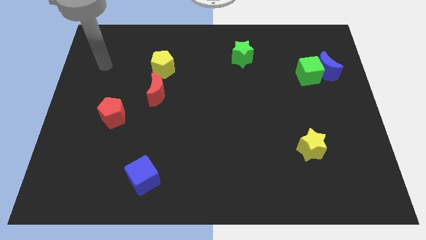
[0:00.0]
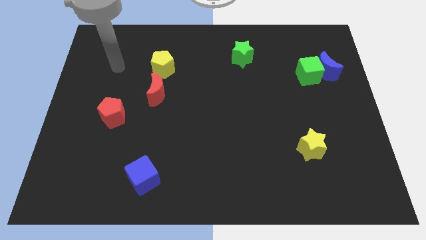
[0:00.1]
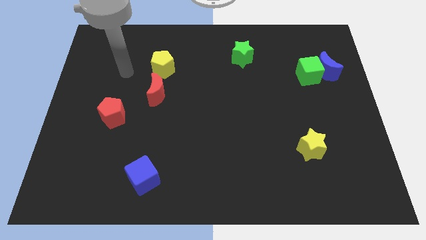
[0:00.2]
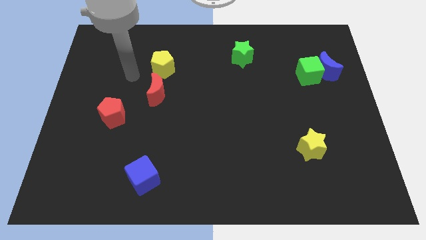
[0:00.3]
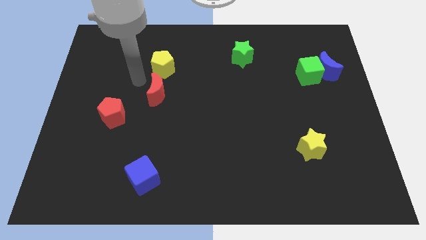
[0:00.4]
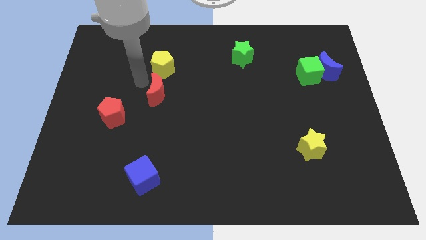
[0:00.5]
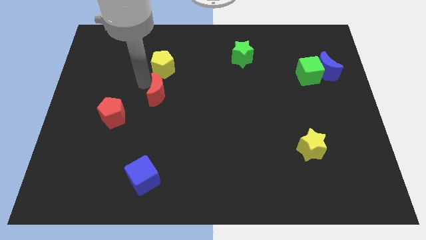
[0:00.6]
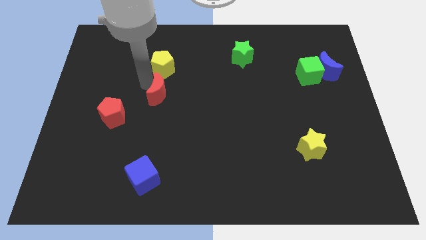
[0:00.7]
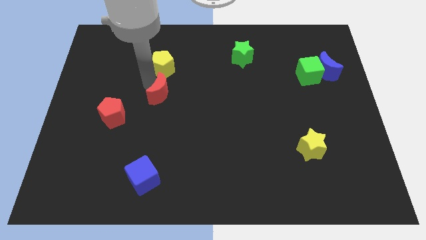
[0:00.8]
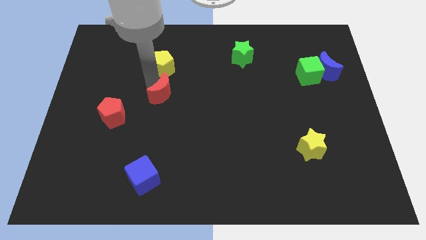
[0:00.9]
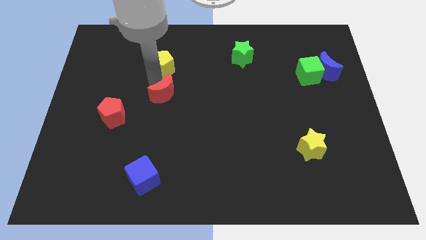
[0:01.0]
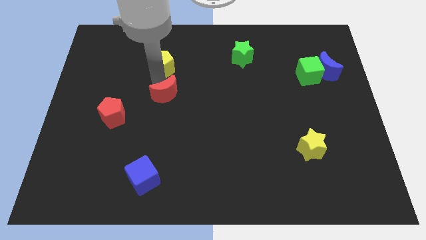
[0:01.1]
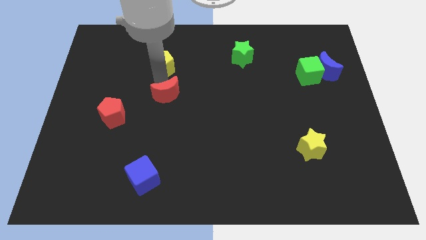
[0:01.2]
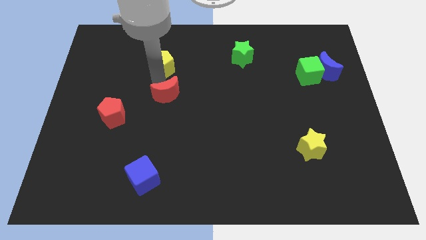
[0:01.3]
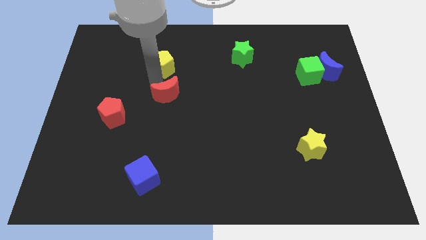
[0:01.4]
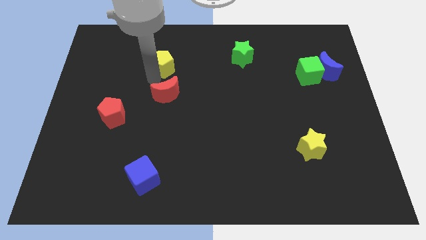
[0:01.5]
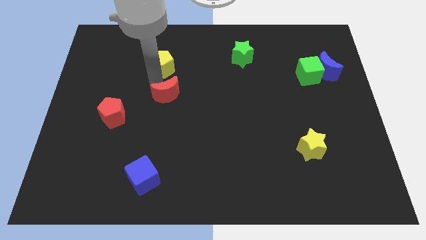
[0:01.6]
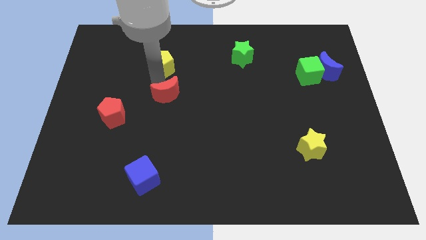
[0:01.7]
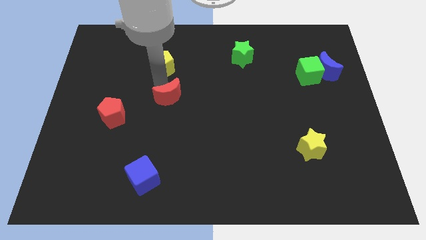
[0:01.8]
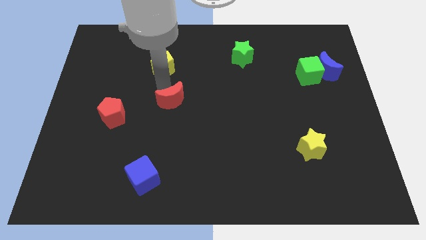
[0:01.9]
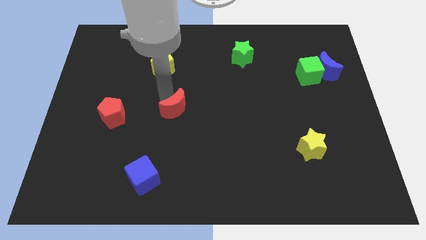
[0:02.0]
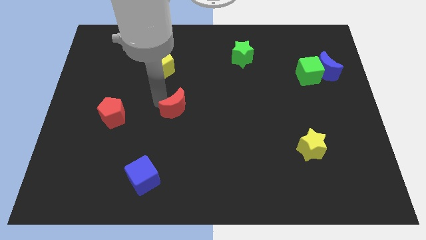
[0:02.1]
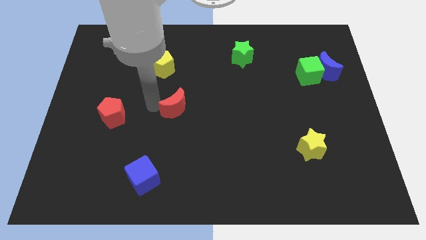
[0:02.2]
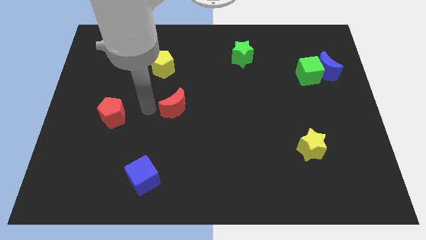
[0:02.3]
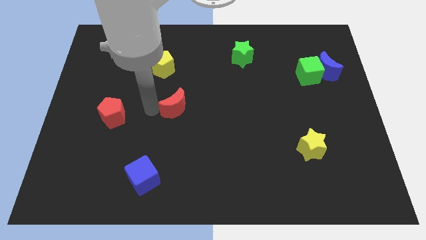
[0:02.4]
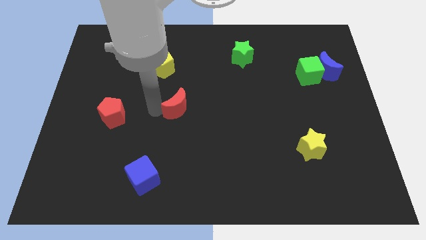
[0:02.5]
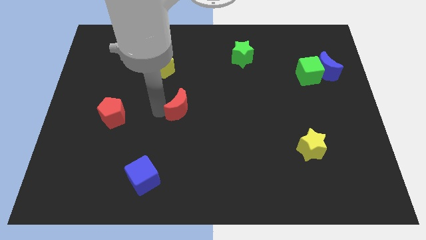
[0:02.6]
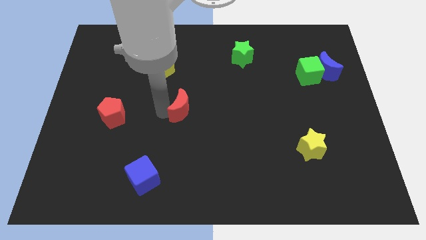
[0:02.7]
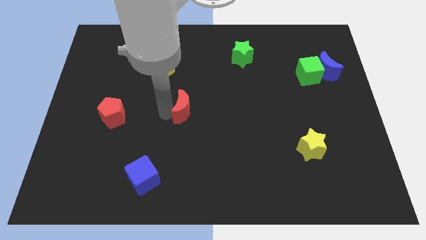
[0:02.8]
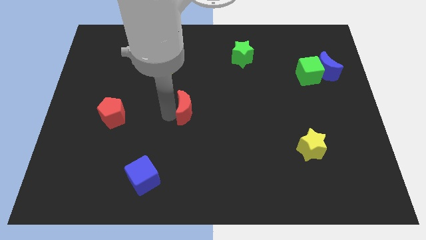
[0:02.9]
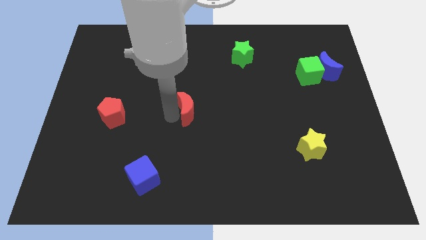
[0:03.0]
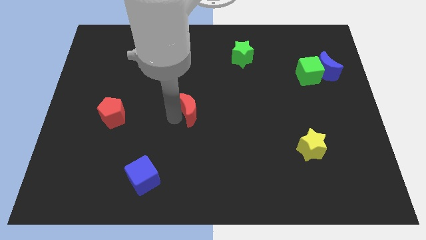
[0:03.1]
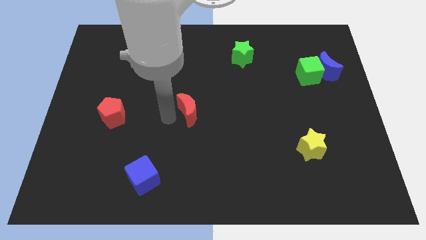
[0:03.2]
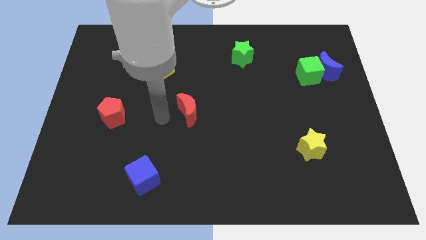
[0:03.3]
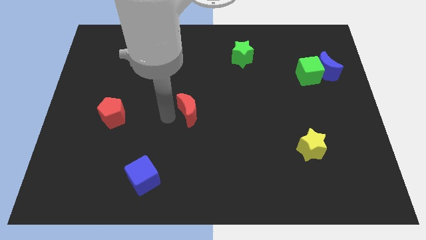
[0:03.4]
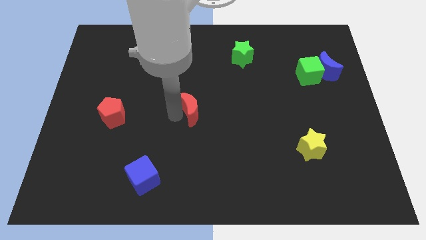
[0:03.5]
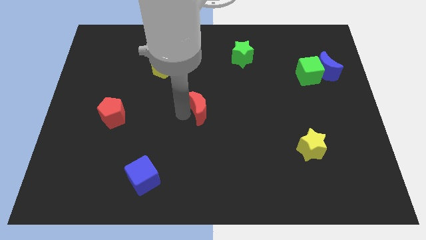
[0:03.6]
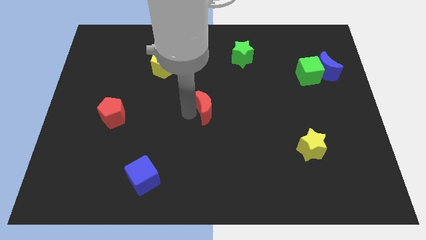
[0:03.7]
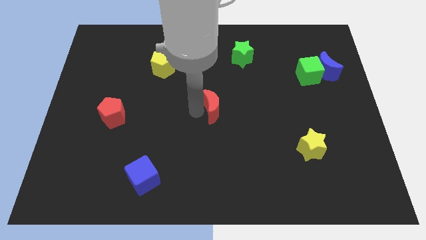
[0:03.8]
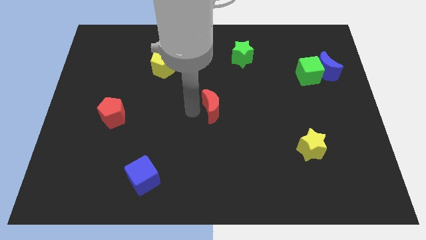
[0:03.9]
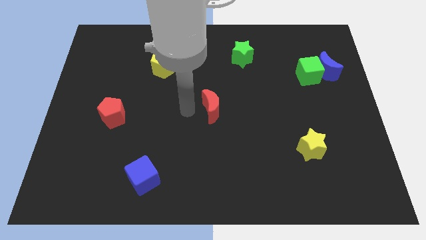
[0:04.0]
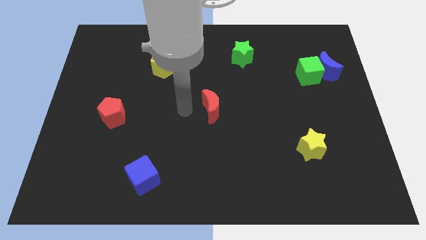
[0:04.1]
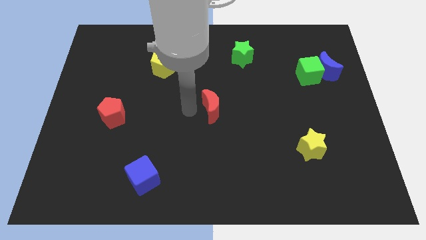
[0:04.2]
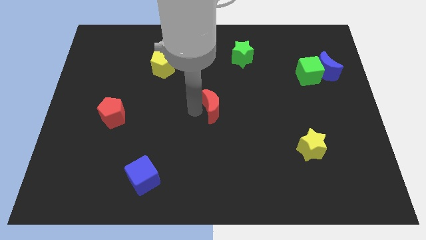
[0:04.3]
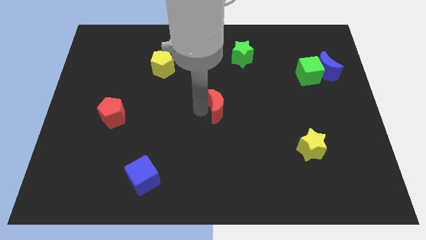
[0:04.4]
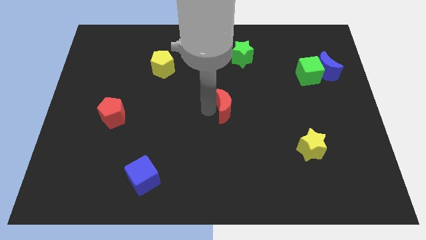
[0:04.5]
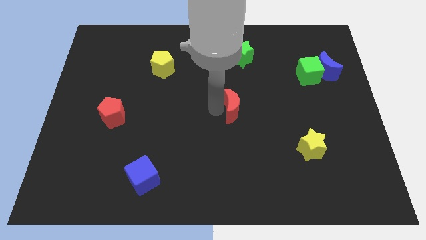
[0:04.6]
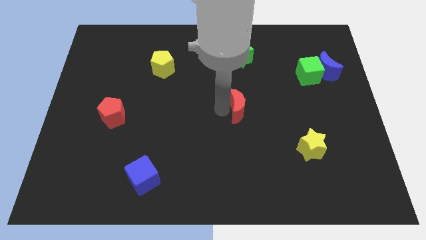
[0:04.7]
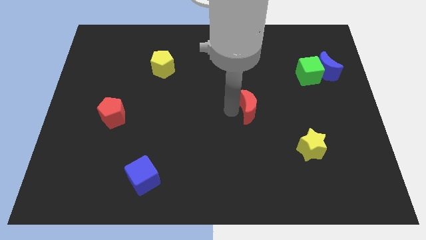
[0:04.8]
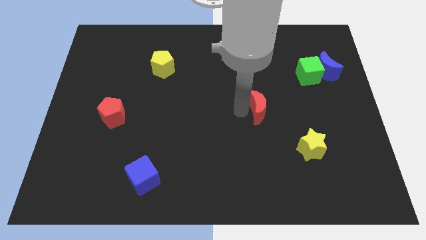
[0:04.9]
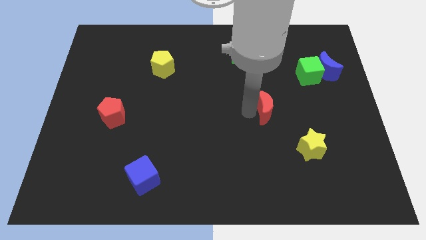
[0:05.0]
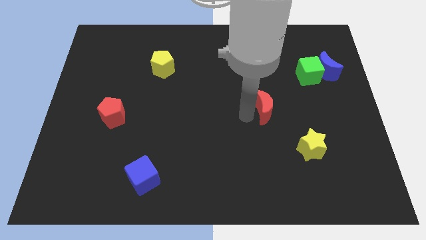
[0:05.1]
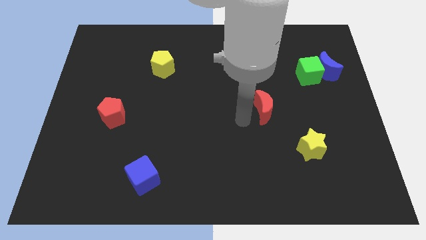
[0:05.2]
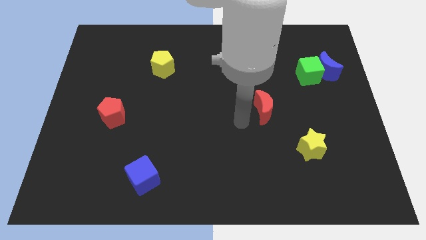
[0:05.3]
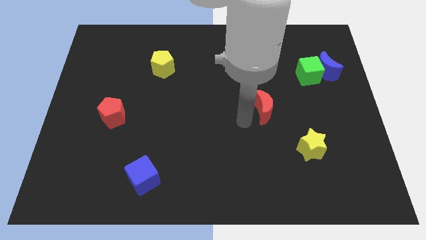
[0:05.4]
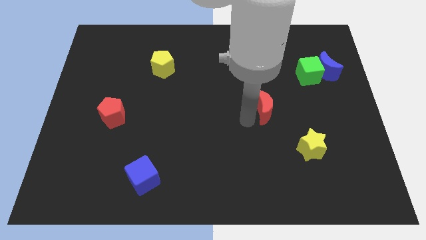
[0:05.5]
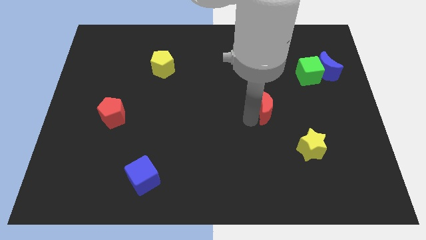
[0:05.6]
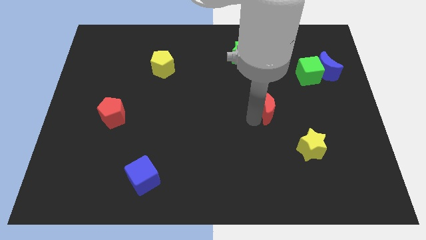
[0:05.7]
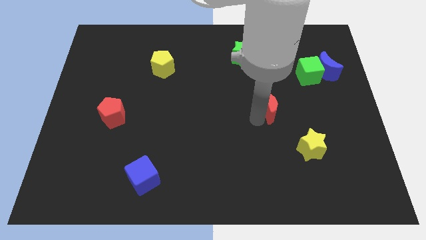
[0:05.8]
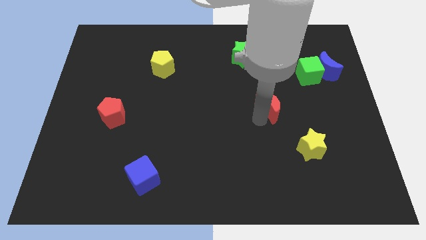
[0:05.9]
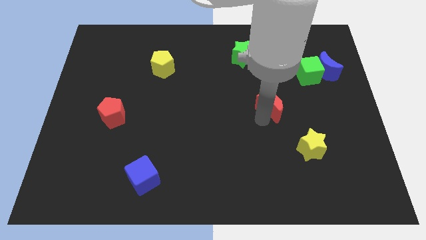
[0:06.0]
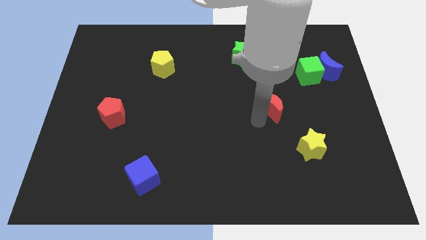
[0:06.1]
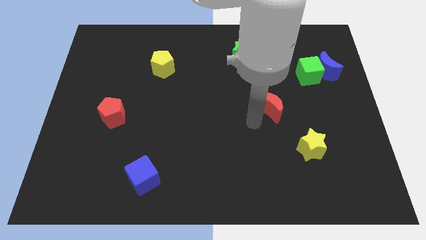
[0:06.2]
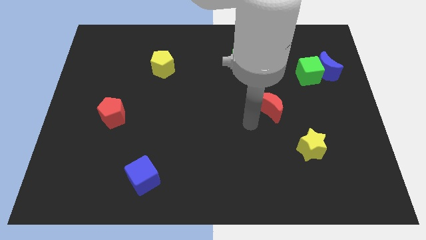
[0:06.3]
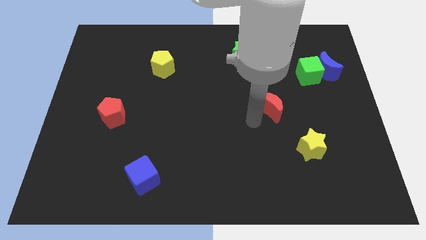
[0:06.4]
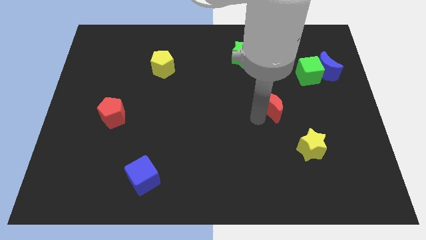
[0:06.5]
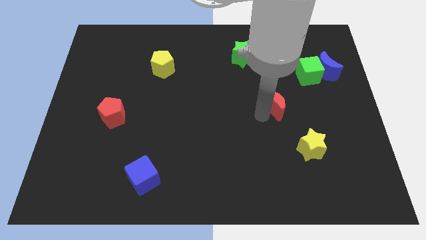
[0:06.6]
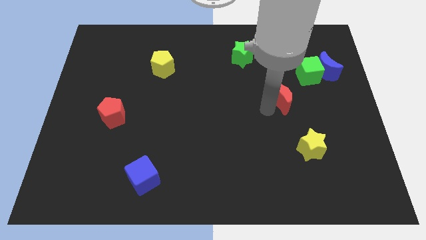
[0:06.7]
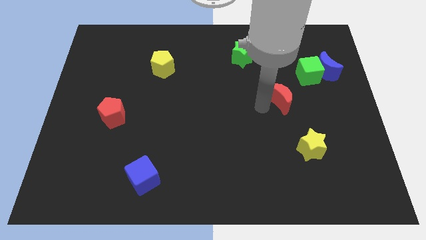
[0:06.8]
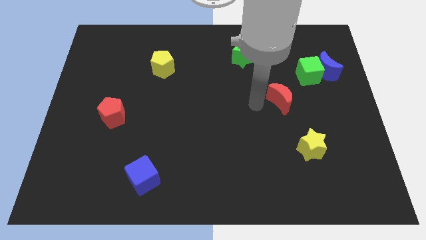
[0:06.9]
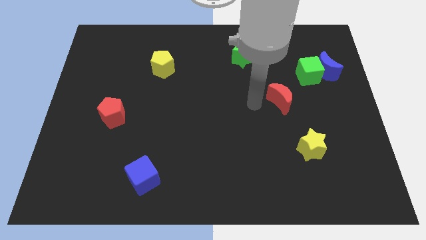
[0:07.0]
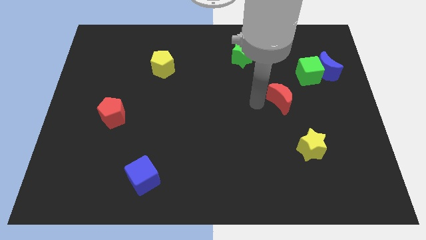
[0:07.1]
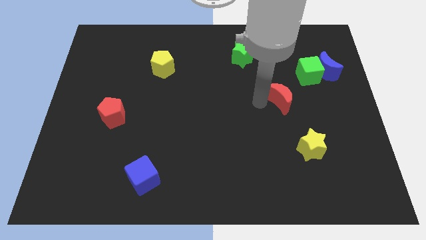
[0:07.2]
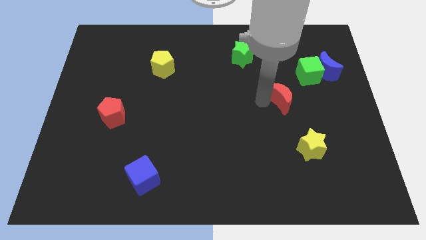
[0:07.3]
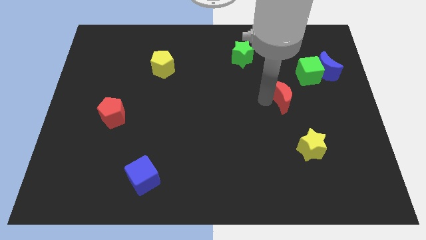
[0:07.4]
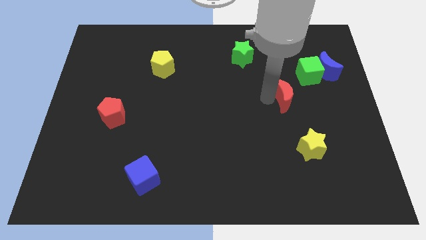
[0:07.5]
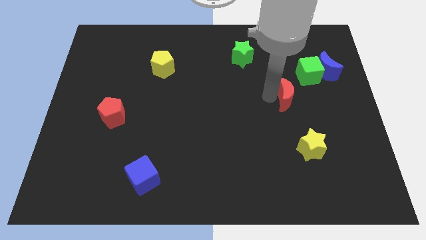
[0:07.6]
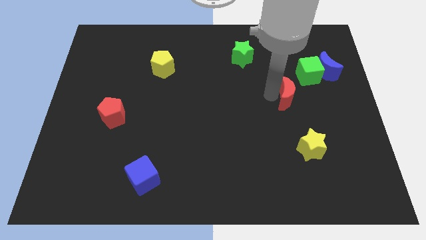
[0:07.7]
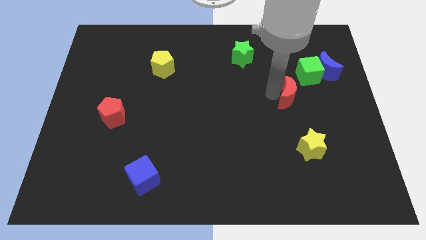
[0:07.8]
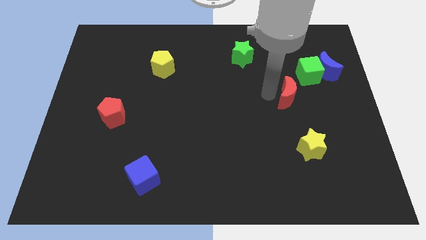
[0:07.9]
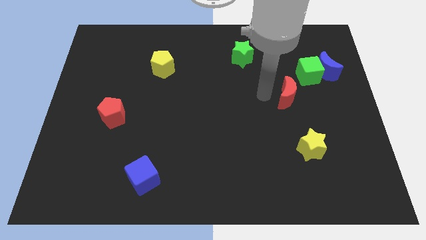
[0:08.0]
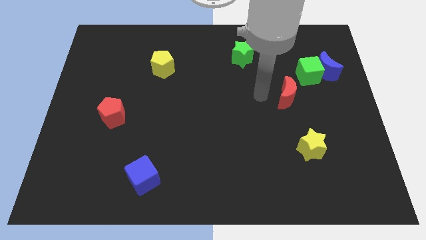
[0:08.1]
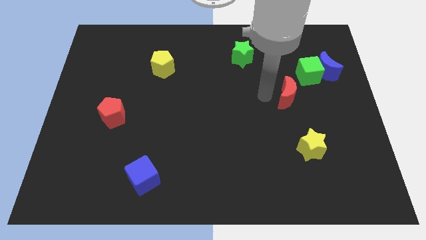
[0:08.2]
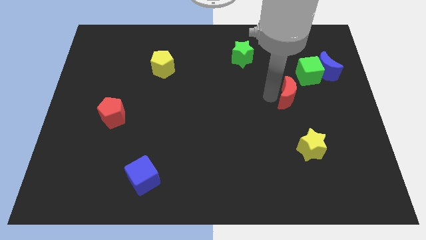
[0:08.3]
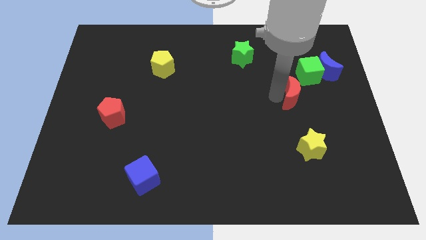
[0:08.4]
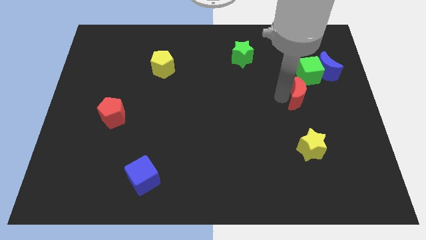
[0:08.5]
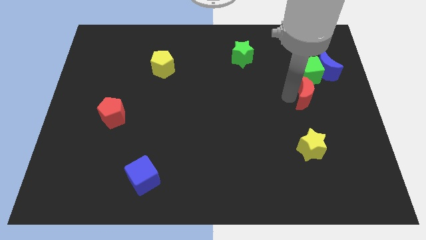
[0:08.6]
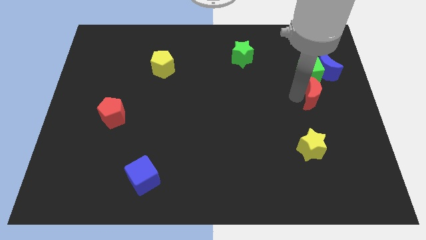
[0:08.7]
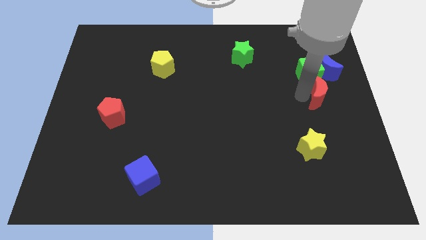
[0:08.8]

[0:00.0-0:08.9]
put the red moon to the right side of the board
